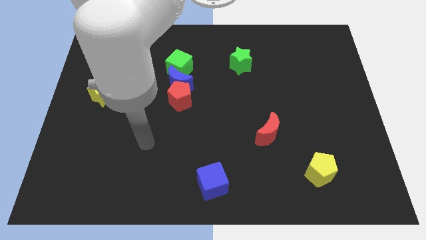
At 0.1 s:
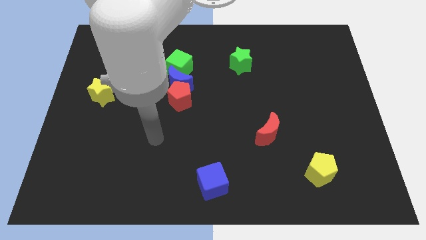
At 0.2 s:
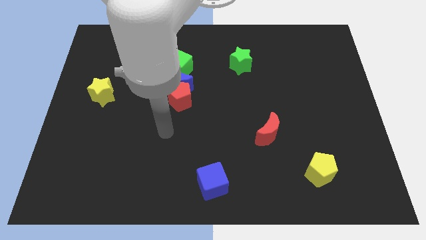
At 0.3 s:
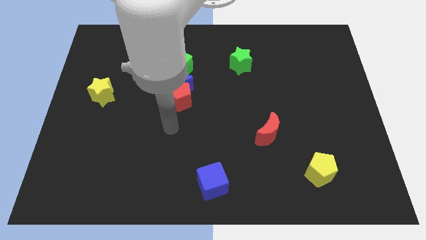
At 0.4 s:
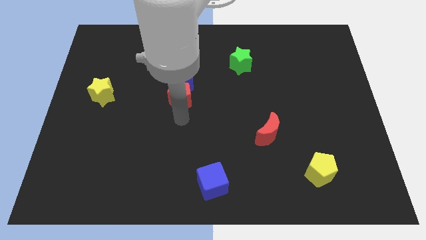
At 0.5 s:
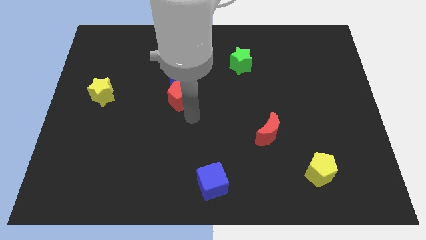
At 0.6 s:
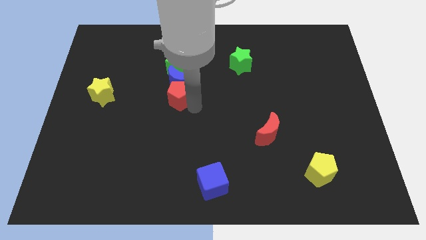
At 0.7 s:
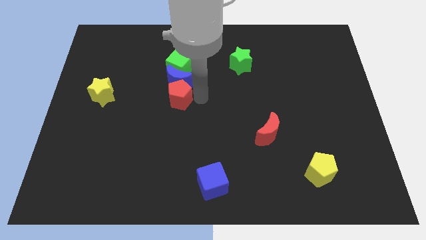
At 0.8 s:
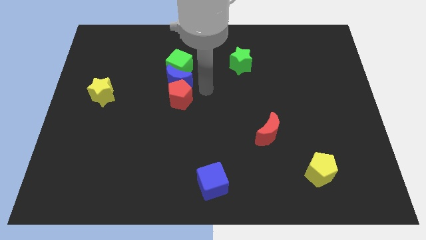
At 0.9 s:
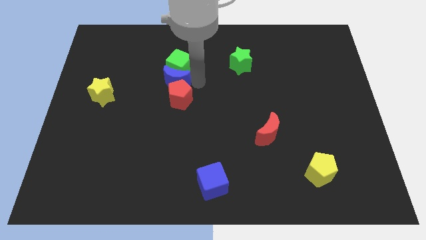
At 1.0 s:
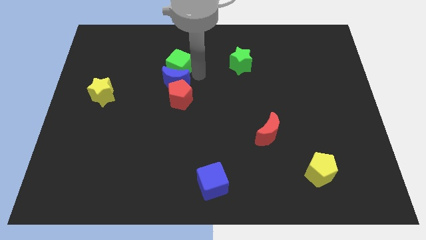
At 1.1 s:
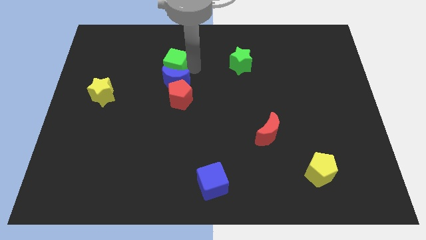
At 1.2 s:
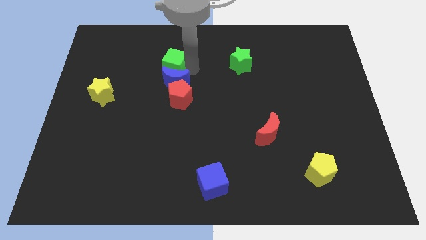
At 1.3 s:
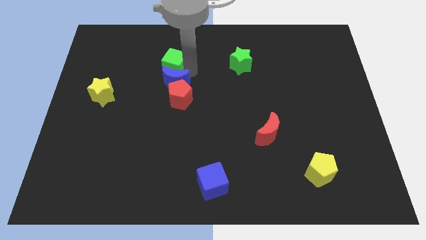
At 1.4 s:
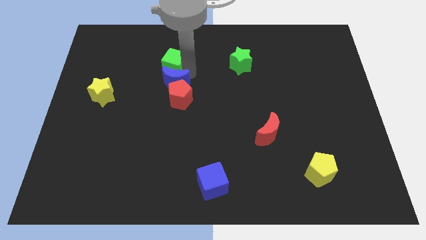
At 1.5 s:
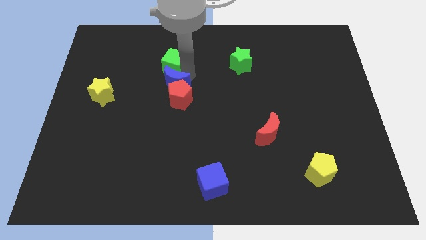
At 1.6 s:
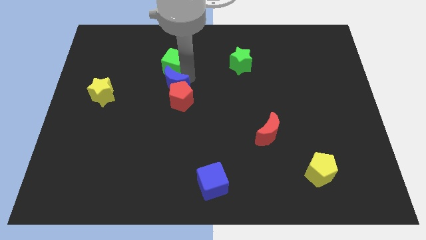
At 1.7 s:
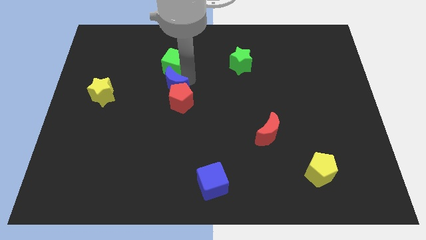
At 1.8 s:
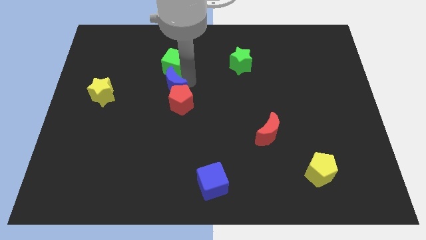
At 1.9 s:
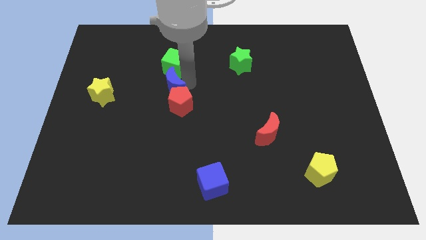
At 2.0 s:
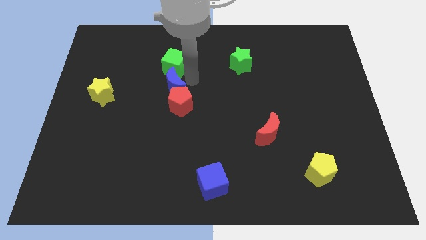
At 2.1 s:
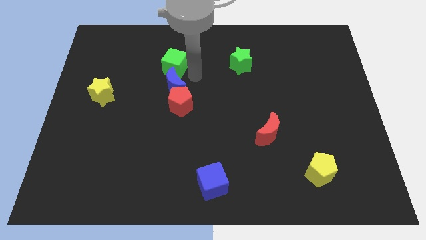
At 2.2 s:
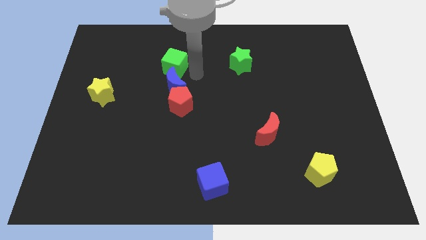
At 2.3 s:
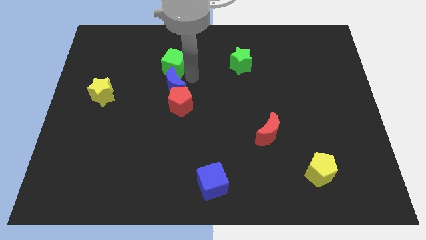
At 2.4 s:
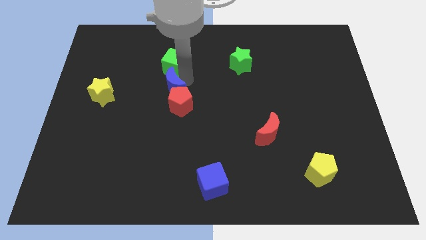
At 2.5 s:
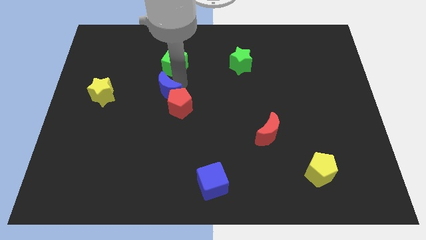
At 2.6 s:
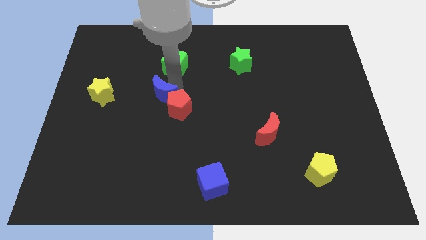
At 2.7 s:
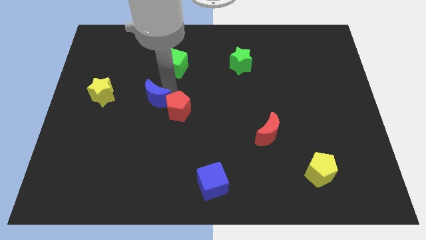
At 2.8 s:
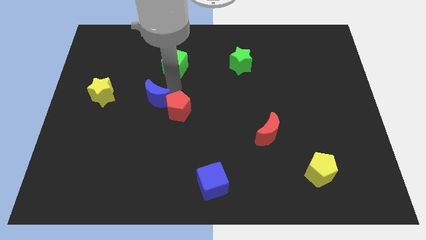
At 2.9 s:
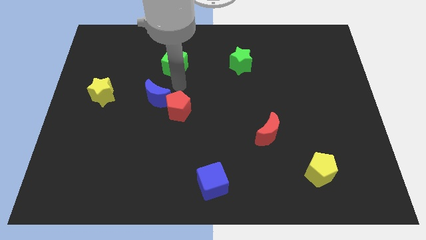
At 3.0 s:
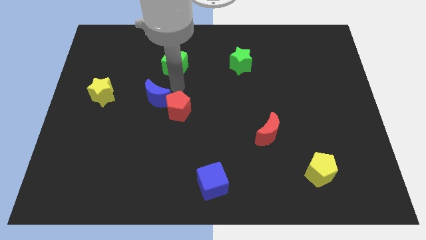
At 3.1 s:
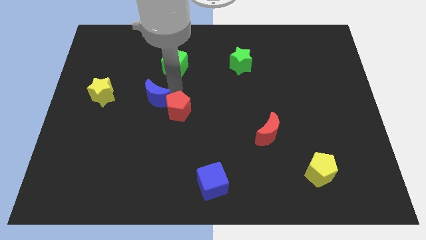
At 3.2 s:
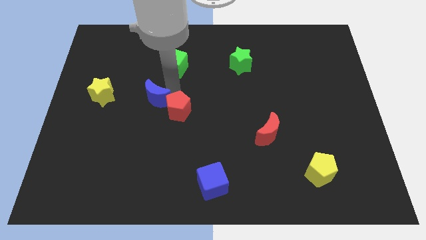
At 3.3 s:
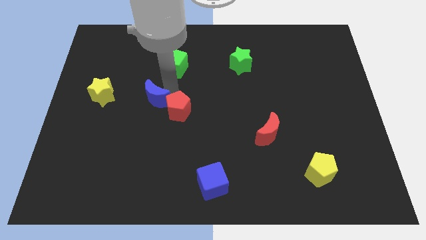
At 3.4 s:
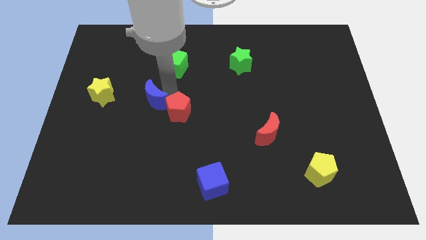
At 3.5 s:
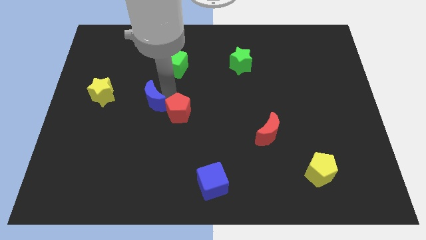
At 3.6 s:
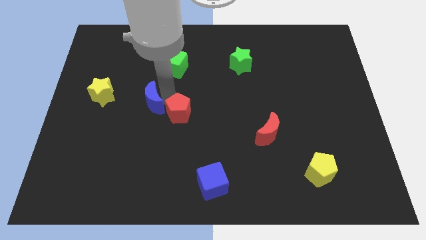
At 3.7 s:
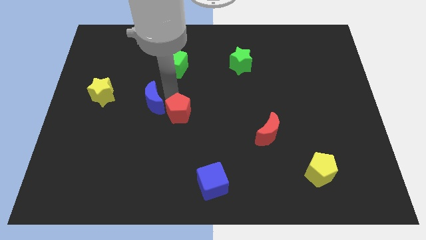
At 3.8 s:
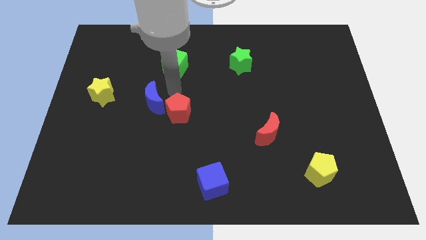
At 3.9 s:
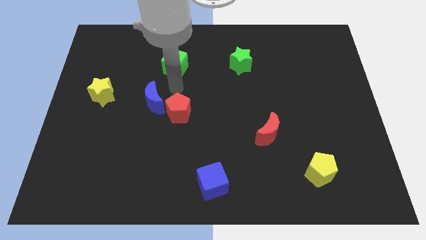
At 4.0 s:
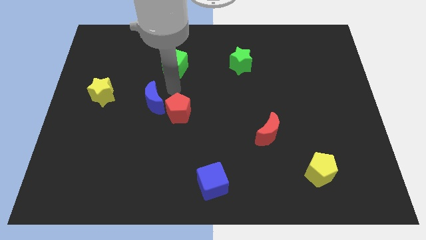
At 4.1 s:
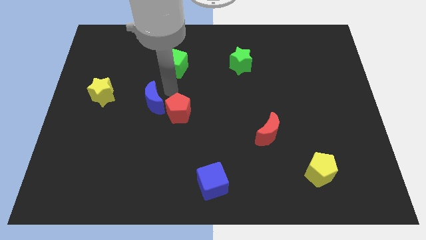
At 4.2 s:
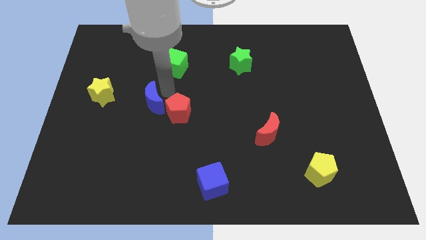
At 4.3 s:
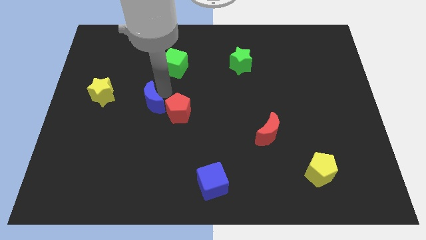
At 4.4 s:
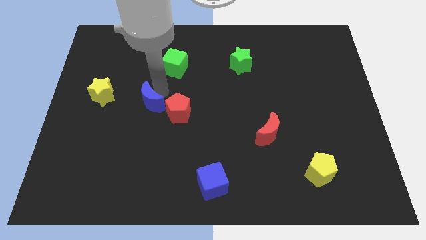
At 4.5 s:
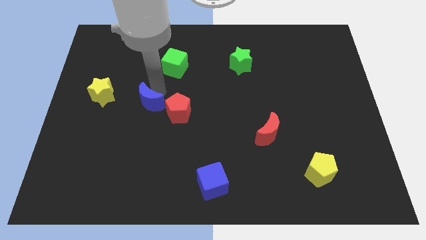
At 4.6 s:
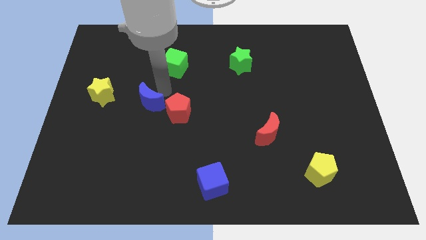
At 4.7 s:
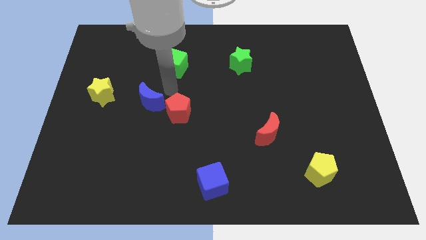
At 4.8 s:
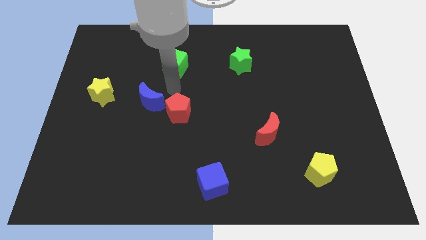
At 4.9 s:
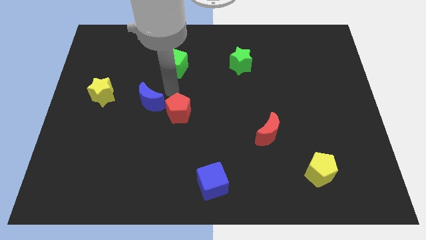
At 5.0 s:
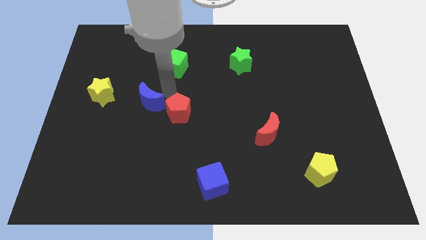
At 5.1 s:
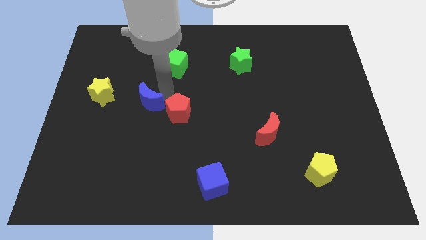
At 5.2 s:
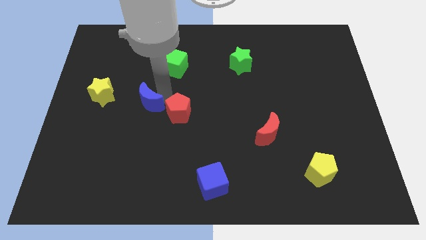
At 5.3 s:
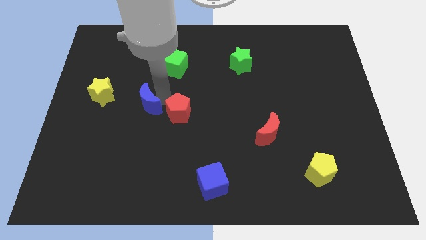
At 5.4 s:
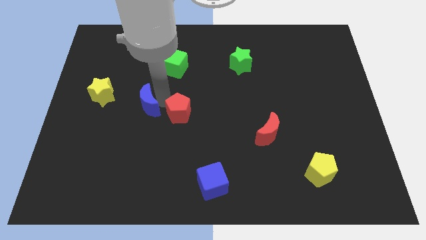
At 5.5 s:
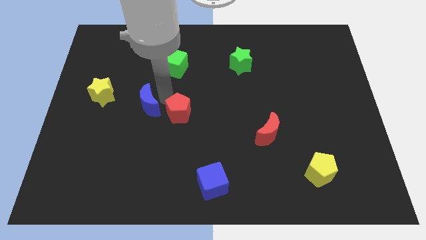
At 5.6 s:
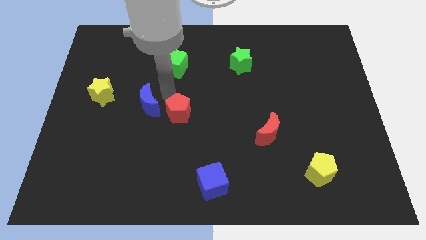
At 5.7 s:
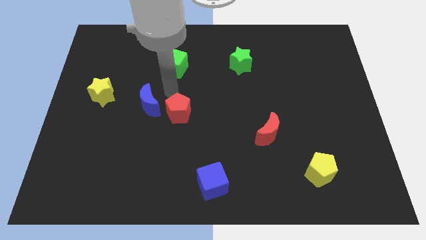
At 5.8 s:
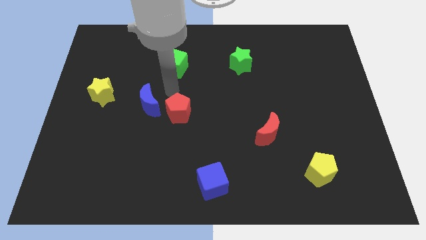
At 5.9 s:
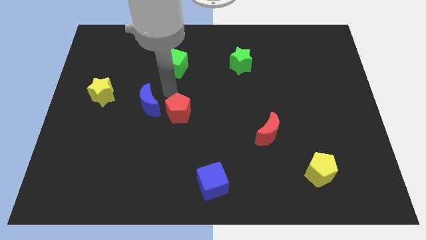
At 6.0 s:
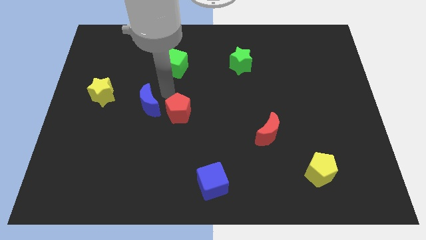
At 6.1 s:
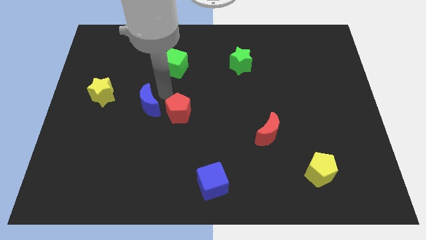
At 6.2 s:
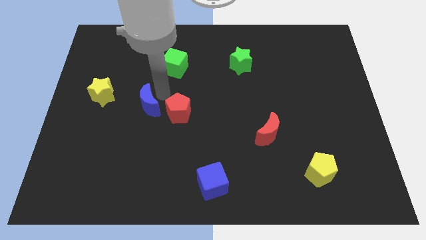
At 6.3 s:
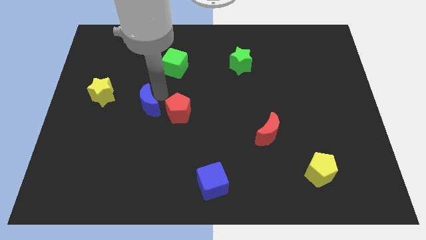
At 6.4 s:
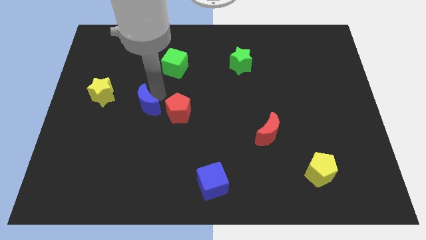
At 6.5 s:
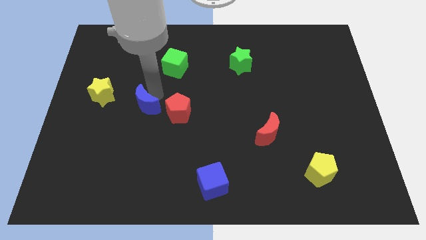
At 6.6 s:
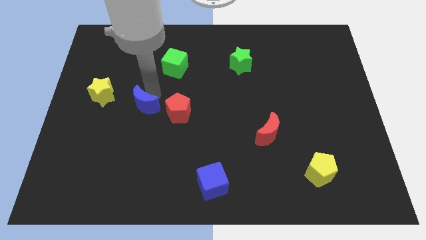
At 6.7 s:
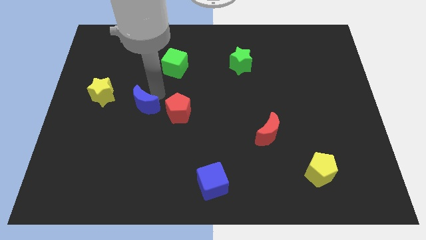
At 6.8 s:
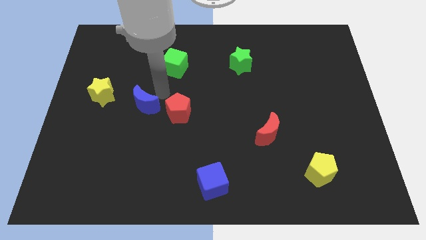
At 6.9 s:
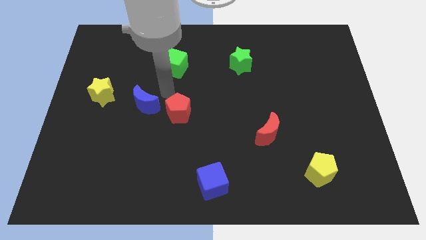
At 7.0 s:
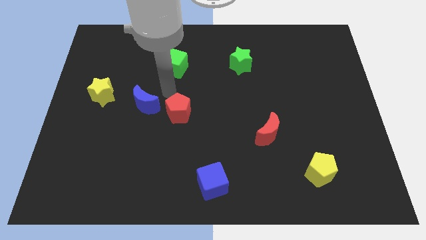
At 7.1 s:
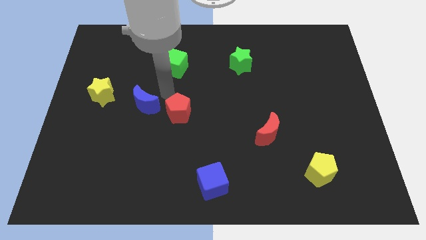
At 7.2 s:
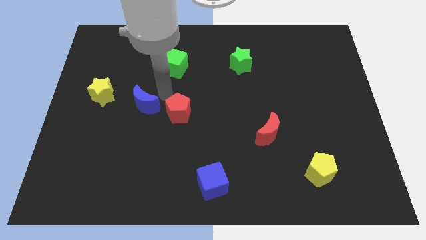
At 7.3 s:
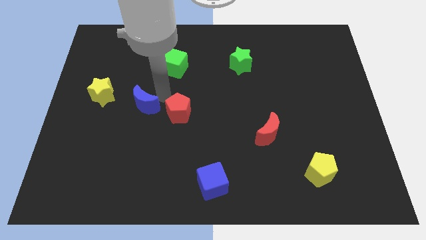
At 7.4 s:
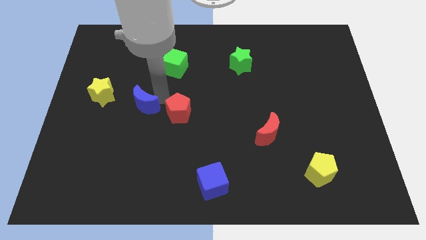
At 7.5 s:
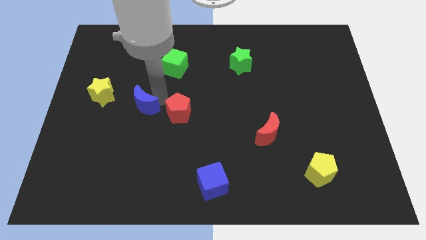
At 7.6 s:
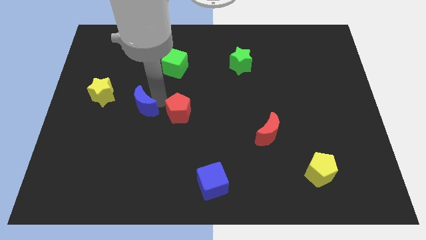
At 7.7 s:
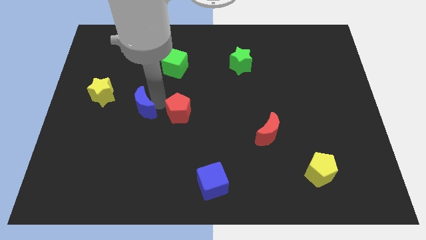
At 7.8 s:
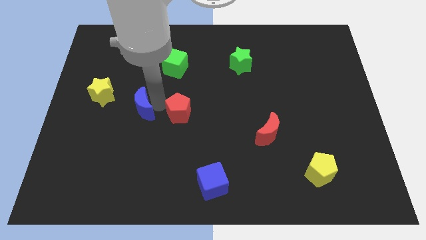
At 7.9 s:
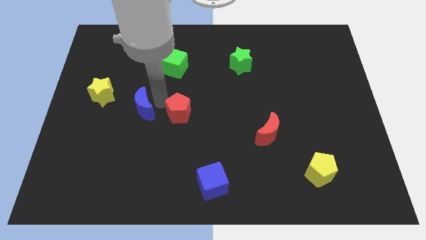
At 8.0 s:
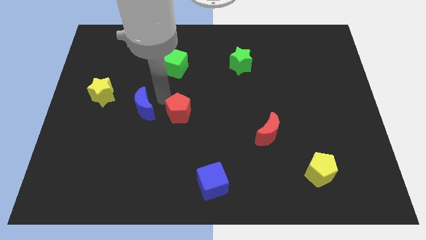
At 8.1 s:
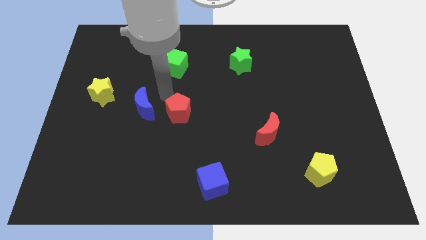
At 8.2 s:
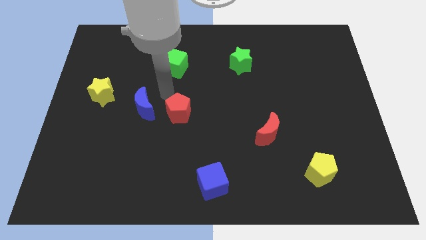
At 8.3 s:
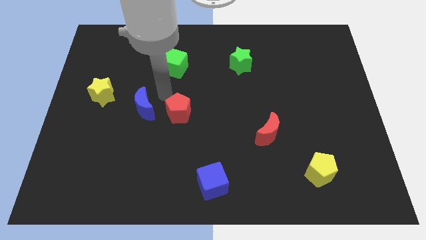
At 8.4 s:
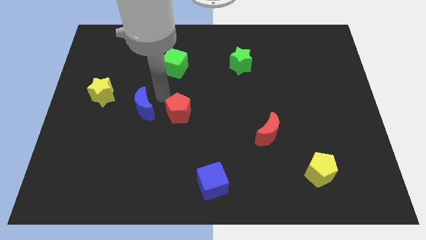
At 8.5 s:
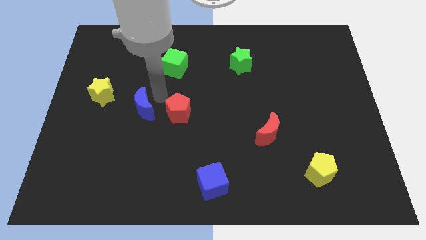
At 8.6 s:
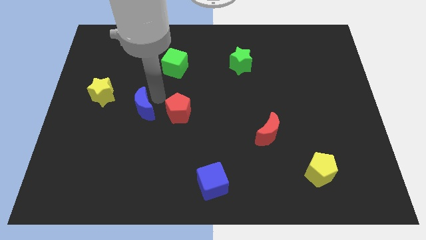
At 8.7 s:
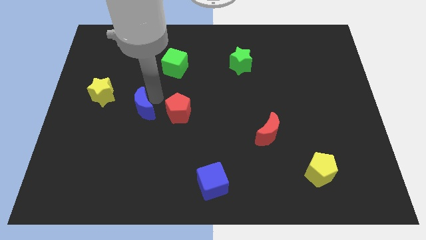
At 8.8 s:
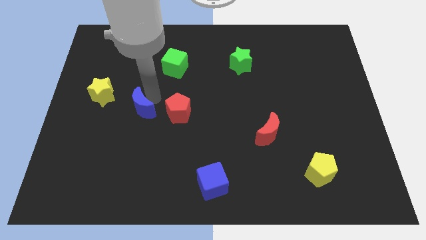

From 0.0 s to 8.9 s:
separate the blue moon from the red pentagon and green cube

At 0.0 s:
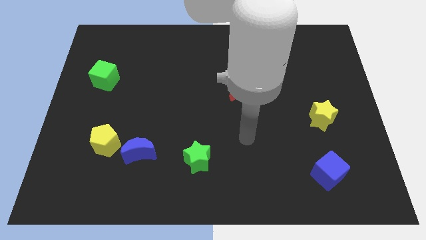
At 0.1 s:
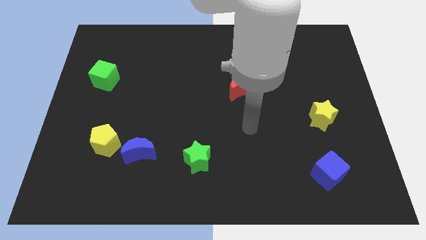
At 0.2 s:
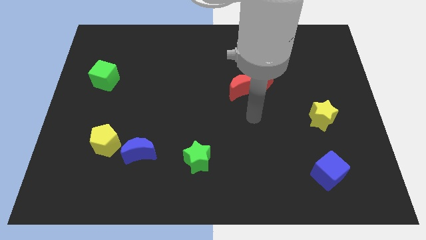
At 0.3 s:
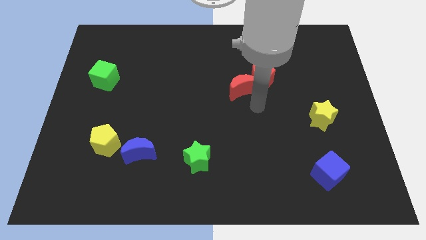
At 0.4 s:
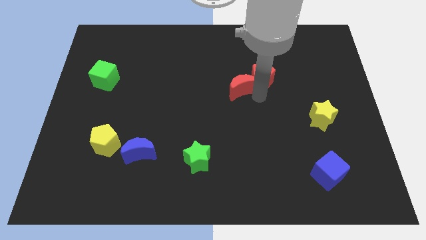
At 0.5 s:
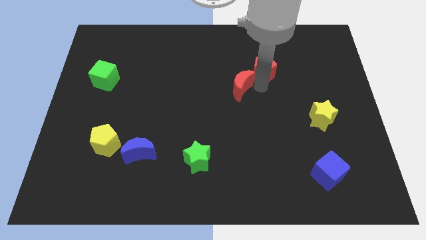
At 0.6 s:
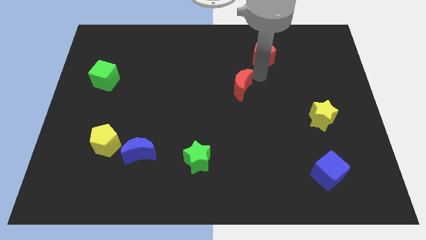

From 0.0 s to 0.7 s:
pull the red moon apart from the red pentagon
